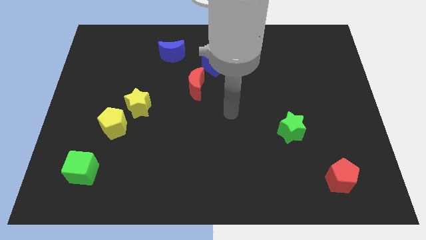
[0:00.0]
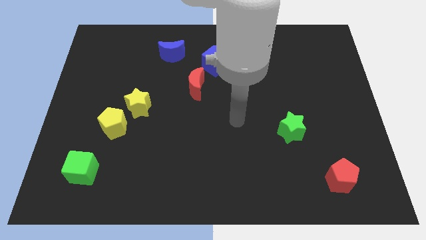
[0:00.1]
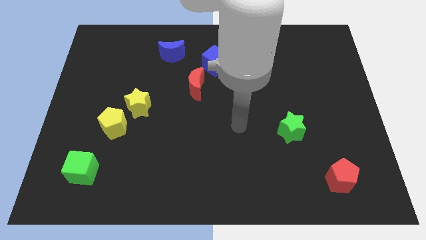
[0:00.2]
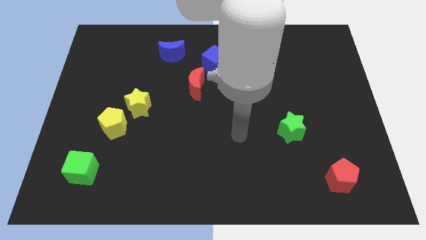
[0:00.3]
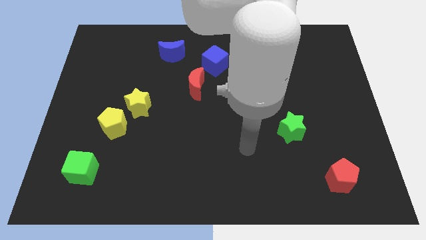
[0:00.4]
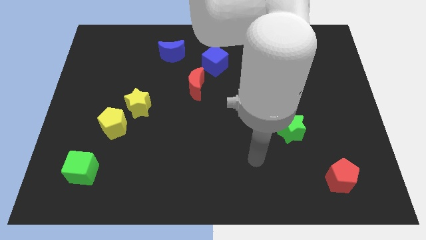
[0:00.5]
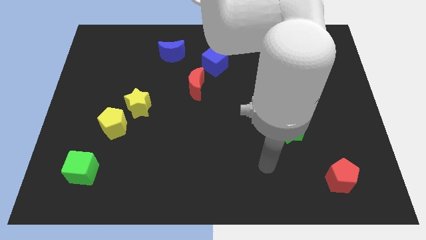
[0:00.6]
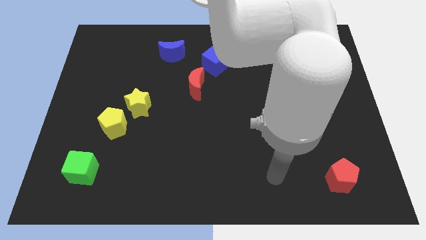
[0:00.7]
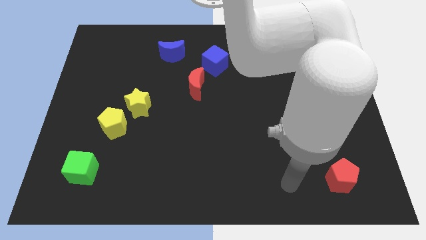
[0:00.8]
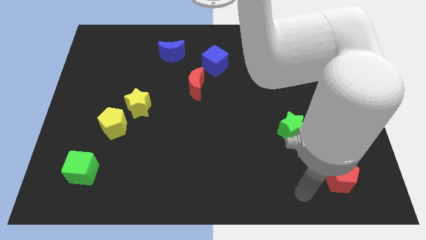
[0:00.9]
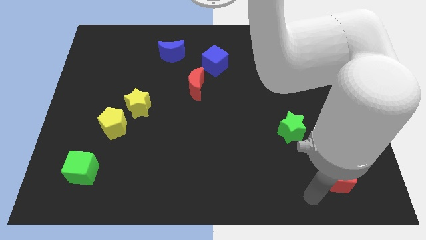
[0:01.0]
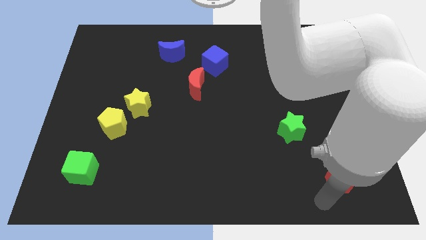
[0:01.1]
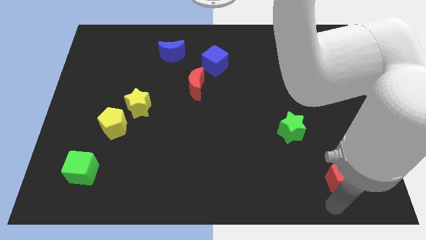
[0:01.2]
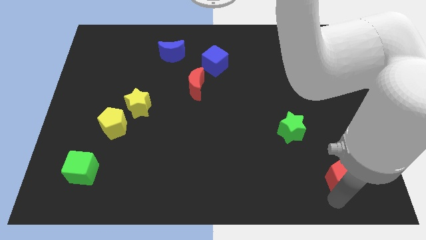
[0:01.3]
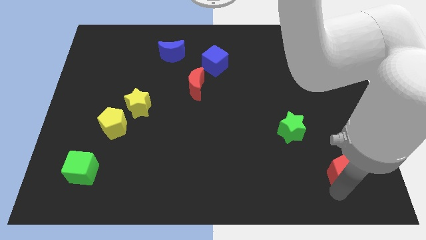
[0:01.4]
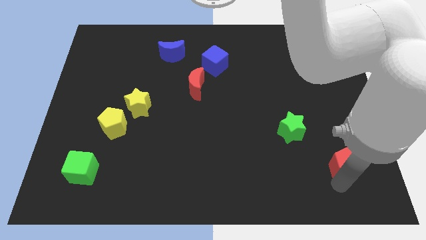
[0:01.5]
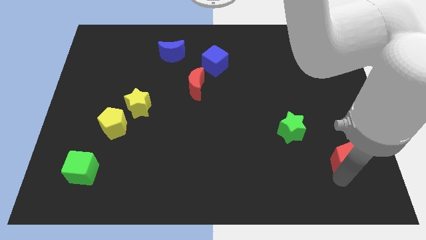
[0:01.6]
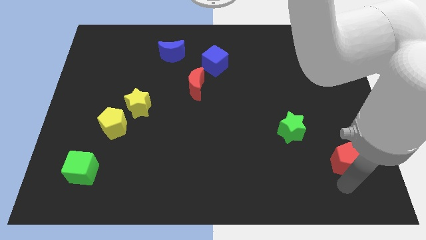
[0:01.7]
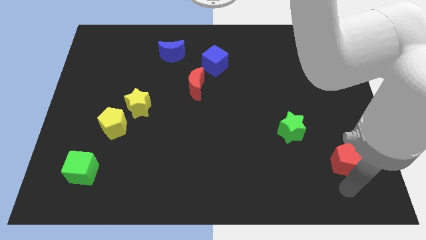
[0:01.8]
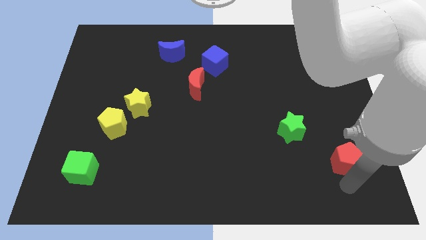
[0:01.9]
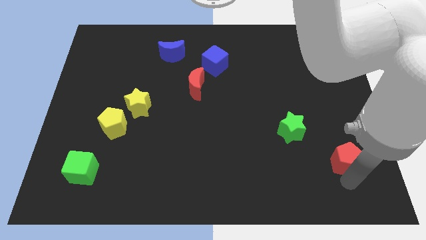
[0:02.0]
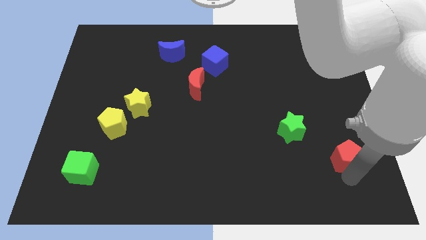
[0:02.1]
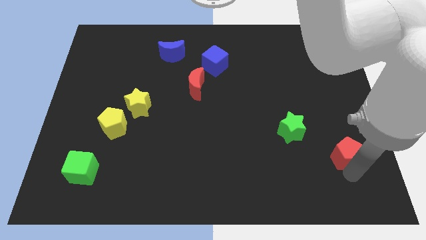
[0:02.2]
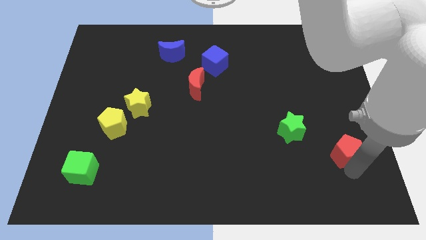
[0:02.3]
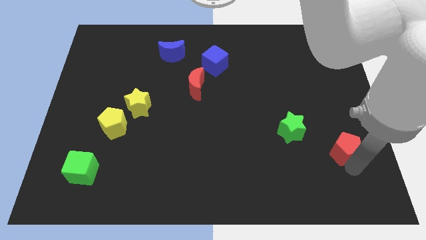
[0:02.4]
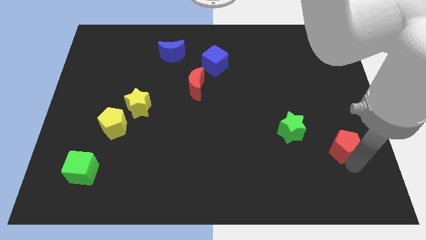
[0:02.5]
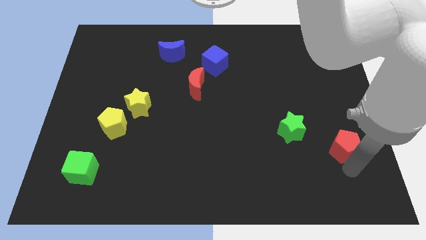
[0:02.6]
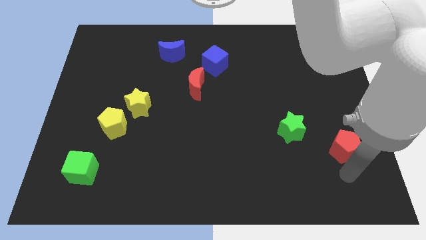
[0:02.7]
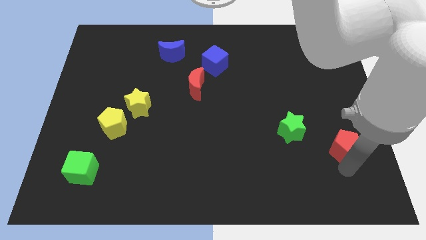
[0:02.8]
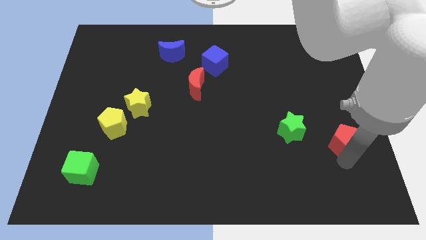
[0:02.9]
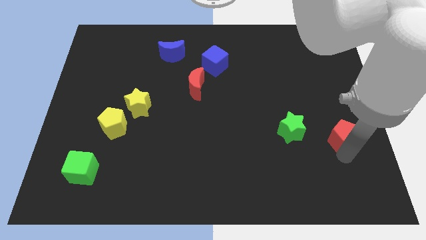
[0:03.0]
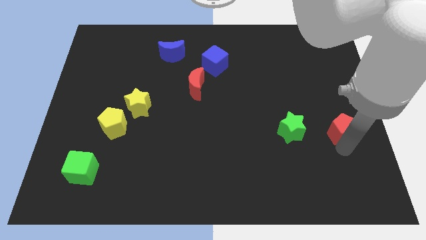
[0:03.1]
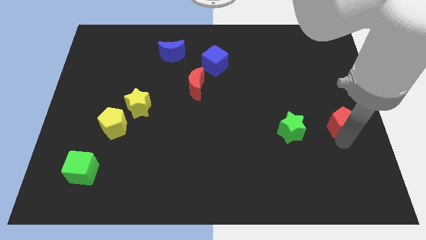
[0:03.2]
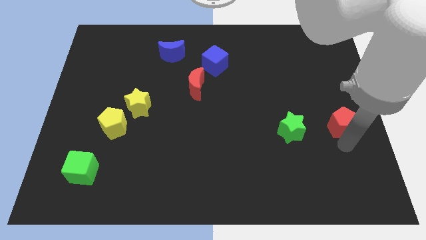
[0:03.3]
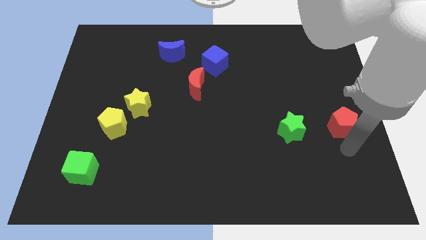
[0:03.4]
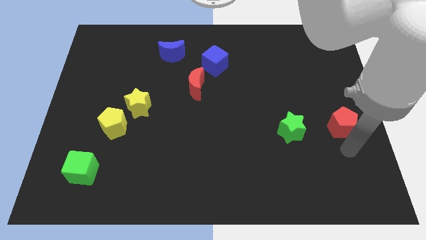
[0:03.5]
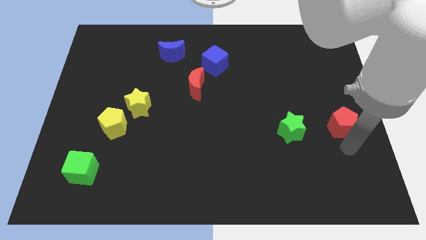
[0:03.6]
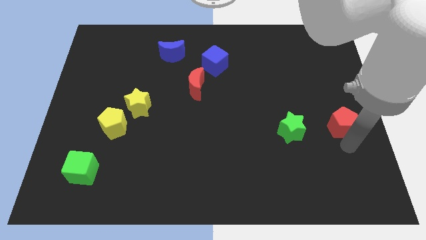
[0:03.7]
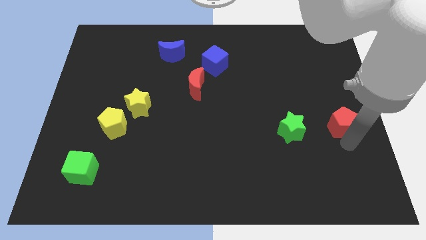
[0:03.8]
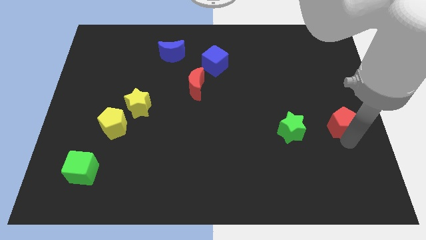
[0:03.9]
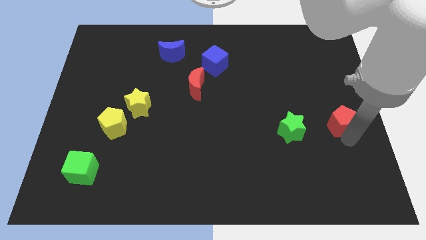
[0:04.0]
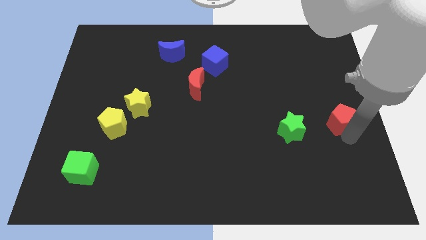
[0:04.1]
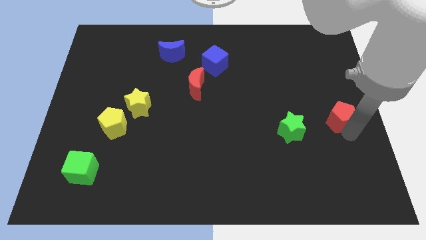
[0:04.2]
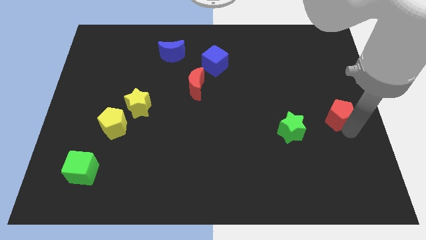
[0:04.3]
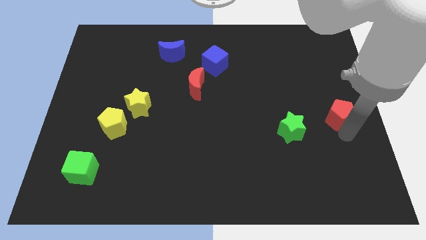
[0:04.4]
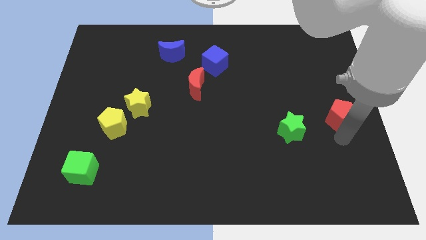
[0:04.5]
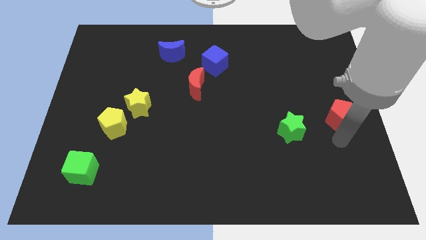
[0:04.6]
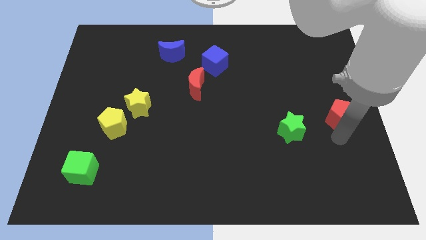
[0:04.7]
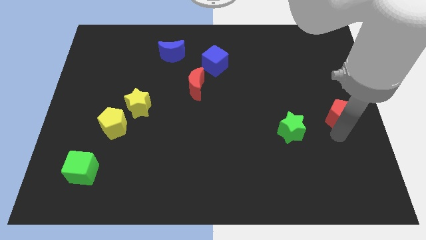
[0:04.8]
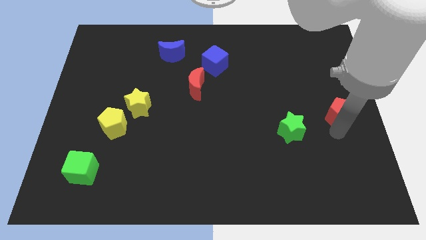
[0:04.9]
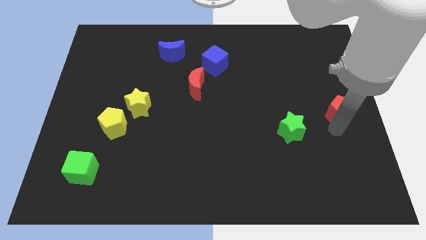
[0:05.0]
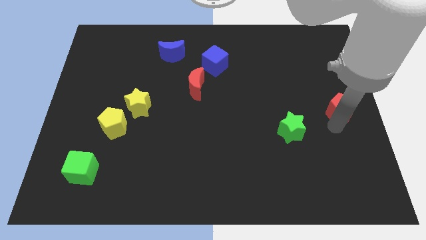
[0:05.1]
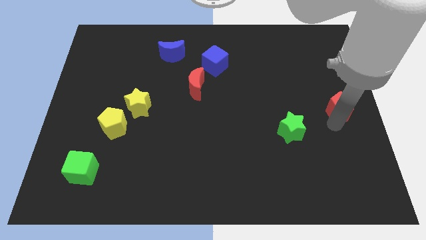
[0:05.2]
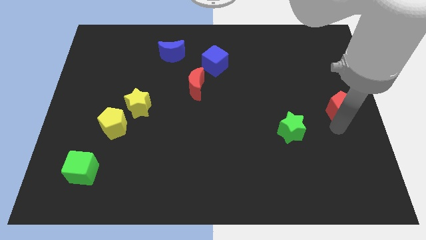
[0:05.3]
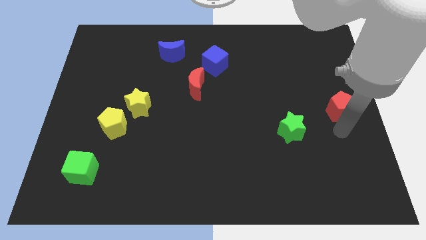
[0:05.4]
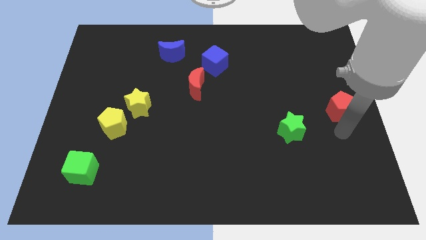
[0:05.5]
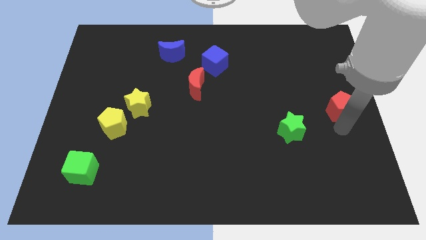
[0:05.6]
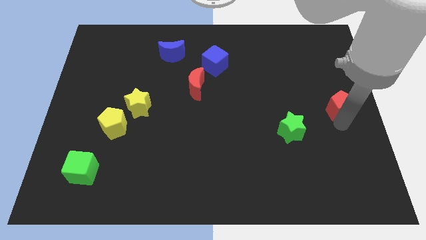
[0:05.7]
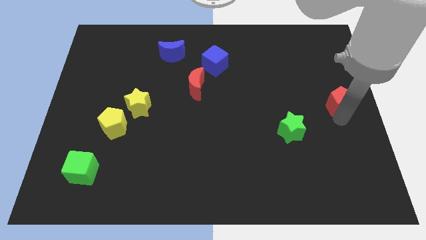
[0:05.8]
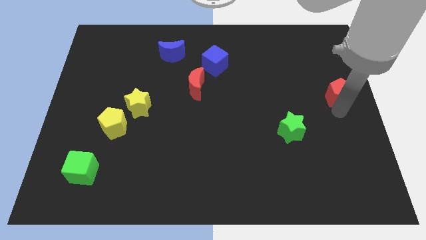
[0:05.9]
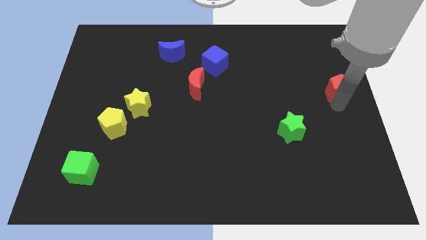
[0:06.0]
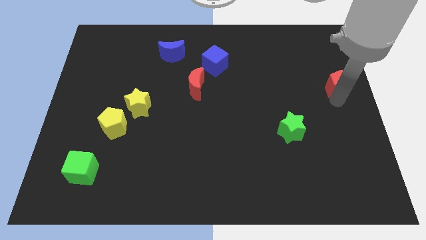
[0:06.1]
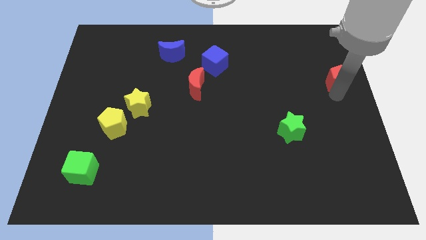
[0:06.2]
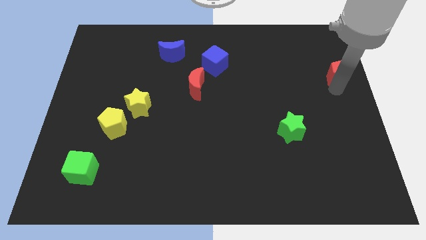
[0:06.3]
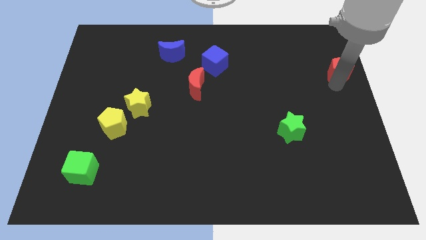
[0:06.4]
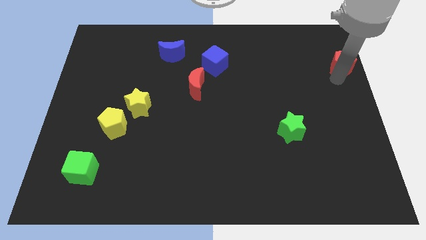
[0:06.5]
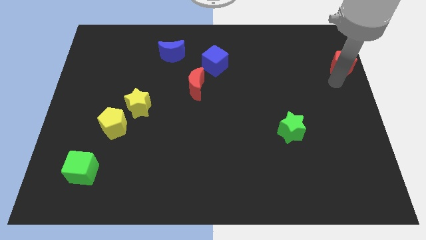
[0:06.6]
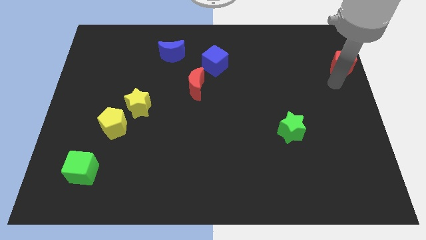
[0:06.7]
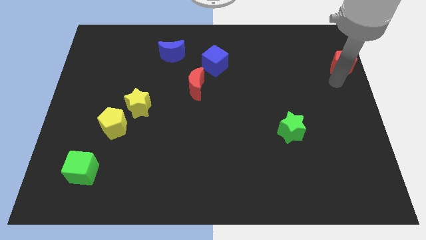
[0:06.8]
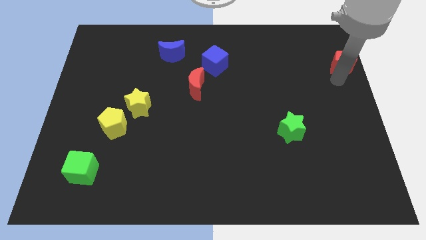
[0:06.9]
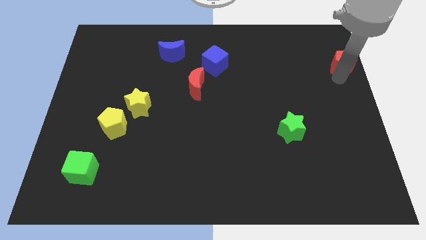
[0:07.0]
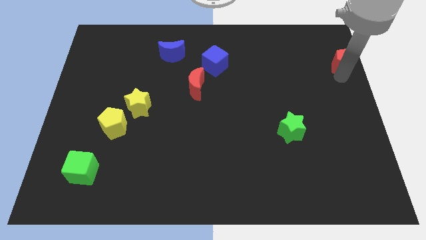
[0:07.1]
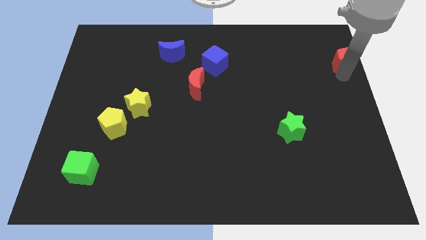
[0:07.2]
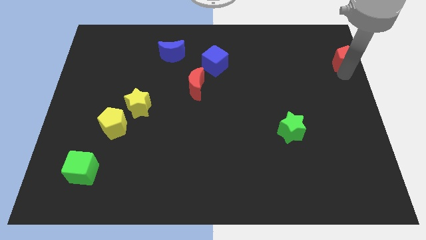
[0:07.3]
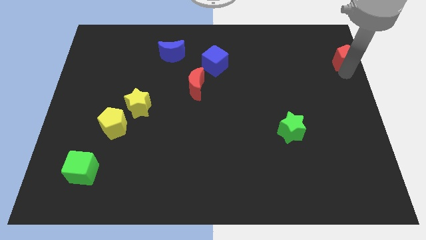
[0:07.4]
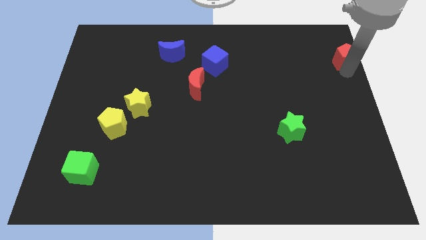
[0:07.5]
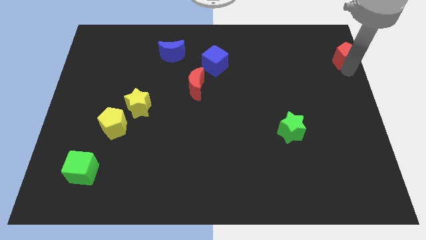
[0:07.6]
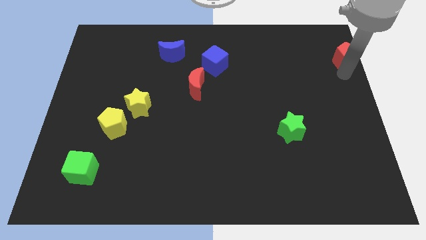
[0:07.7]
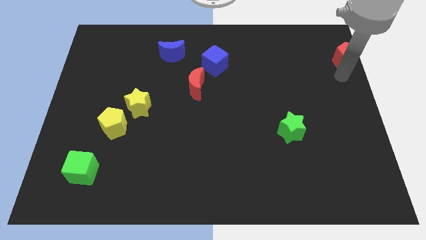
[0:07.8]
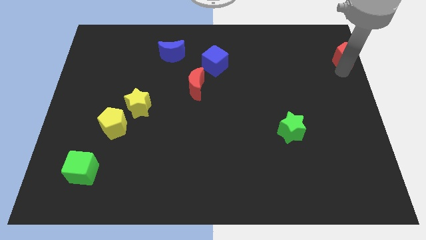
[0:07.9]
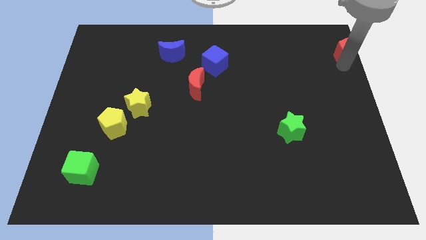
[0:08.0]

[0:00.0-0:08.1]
move the red pentagon to the top right of the board
